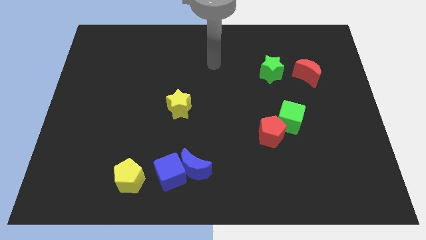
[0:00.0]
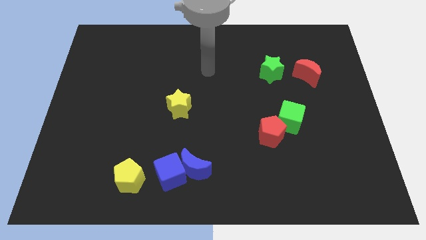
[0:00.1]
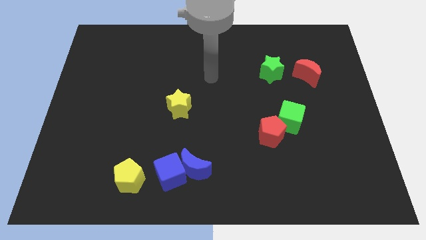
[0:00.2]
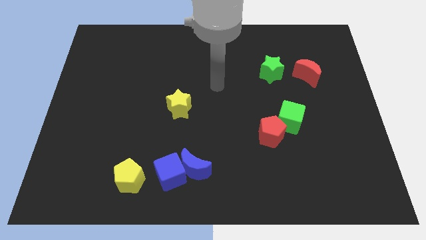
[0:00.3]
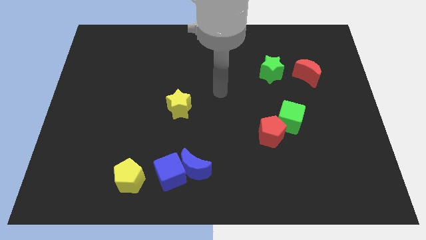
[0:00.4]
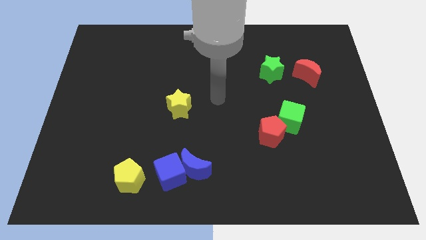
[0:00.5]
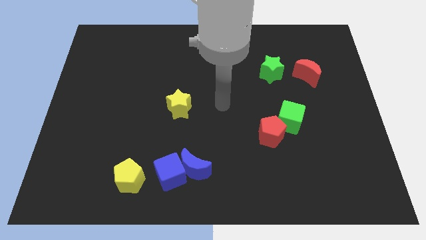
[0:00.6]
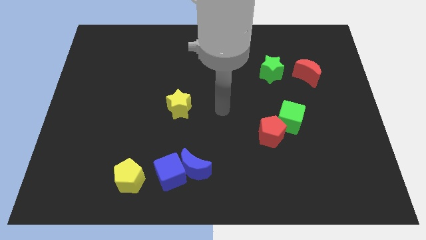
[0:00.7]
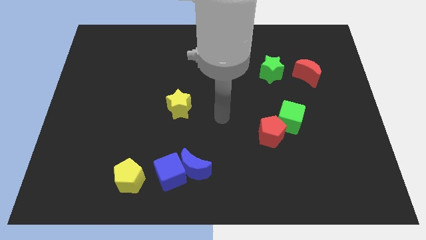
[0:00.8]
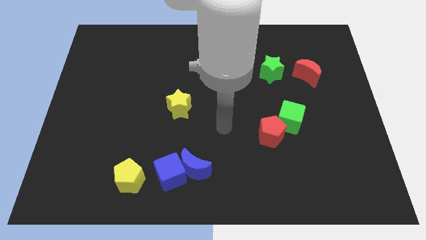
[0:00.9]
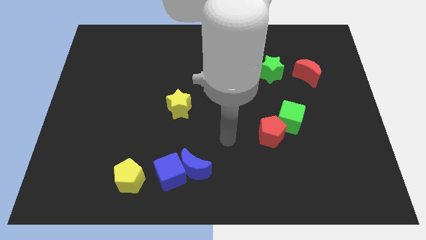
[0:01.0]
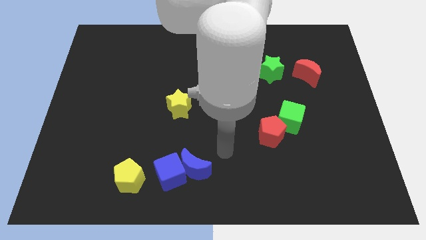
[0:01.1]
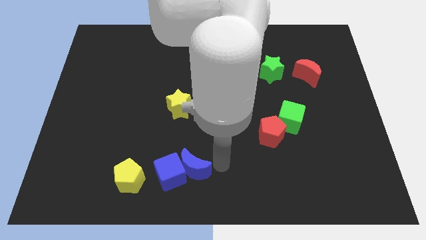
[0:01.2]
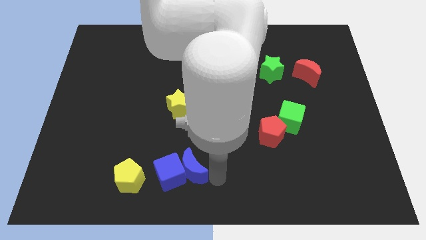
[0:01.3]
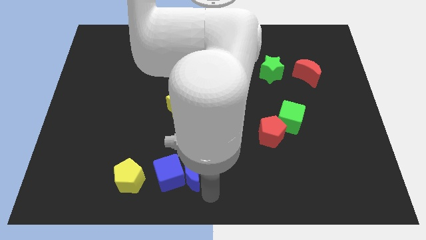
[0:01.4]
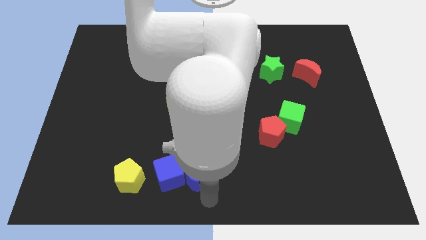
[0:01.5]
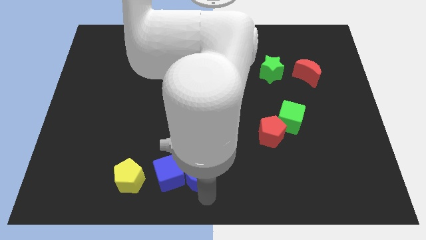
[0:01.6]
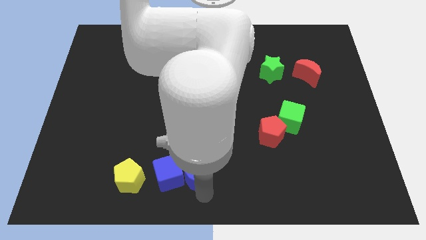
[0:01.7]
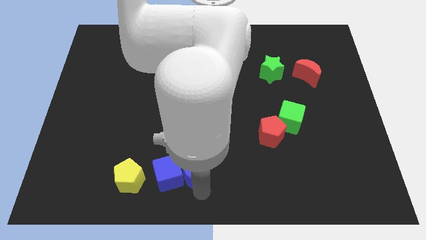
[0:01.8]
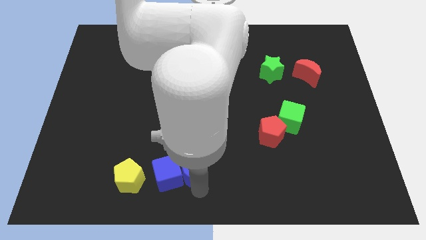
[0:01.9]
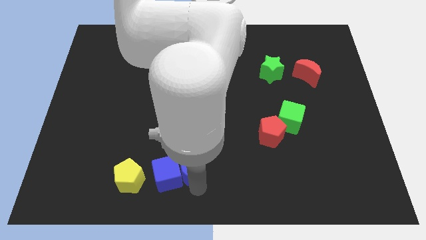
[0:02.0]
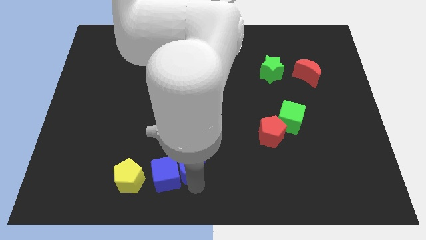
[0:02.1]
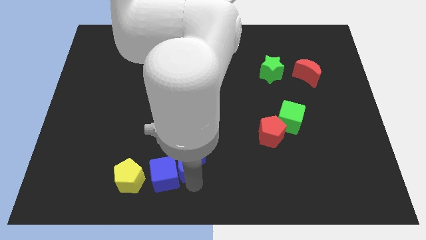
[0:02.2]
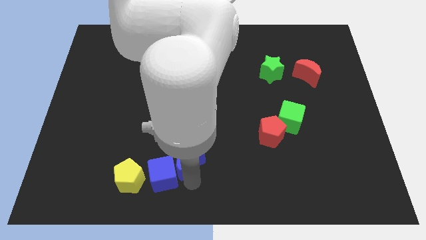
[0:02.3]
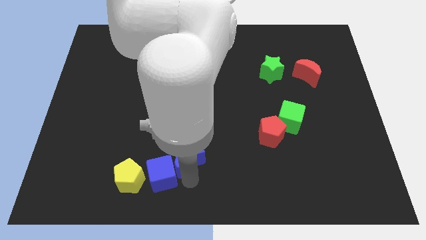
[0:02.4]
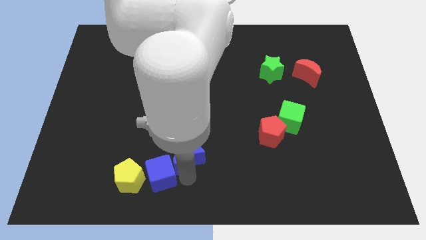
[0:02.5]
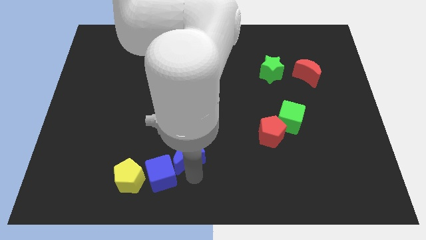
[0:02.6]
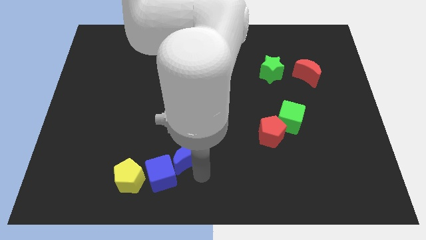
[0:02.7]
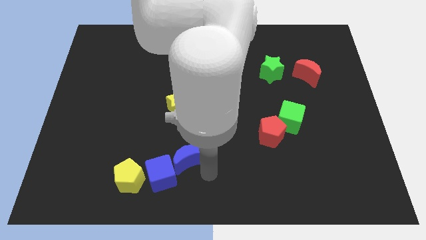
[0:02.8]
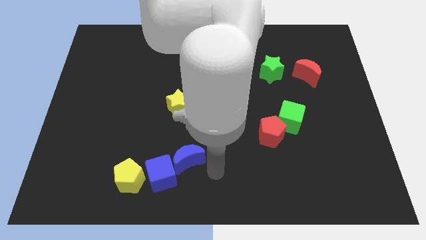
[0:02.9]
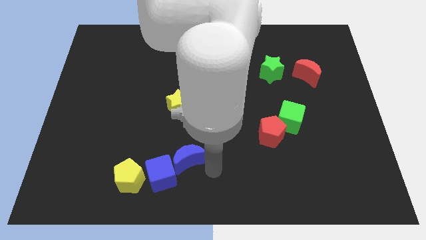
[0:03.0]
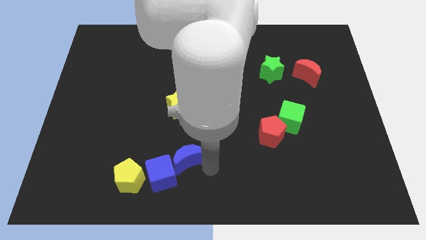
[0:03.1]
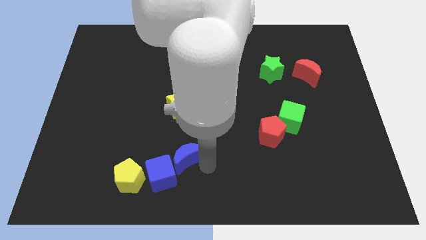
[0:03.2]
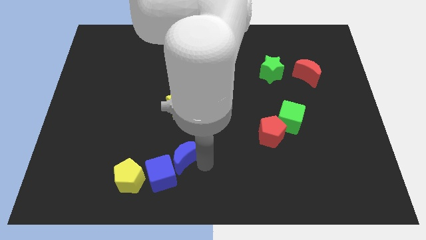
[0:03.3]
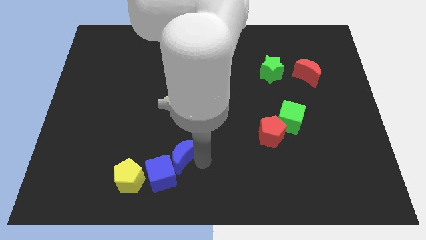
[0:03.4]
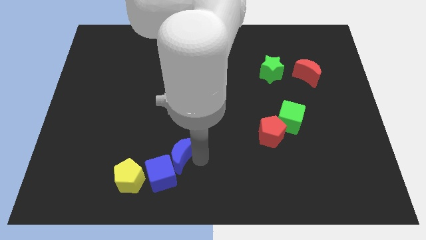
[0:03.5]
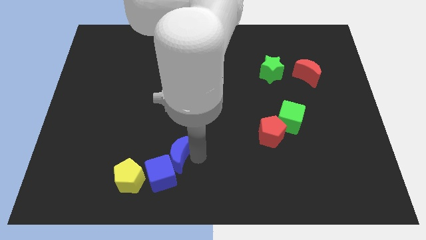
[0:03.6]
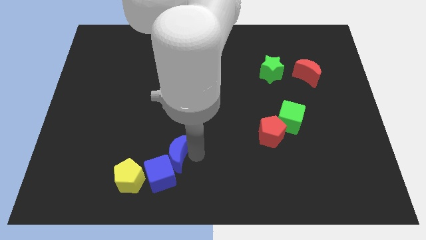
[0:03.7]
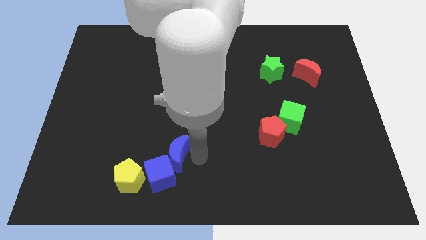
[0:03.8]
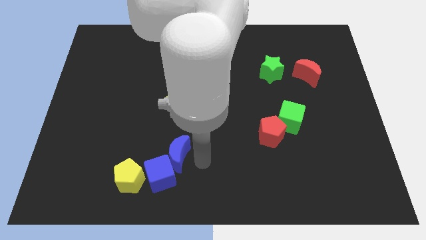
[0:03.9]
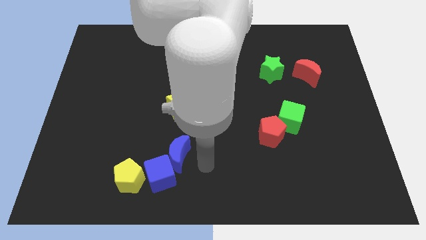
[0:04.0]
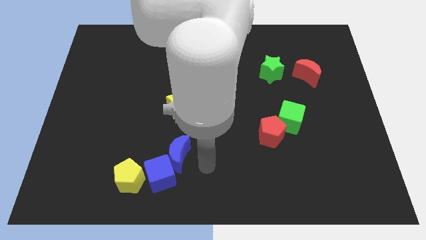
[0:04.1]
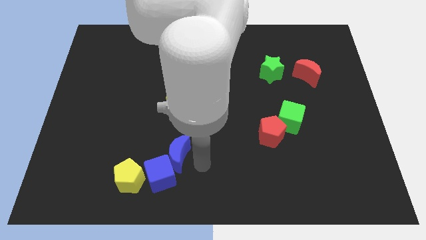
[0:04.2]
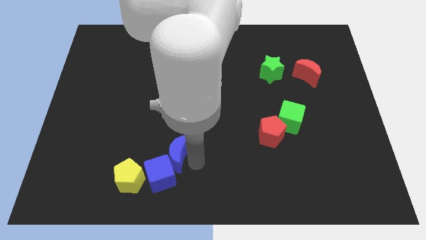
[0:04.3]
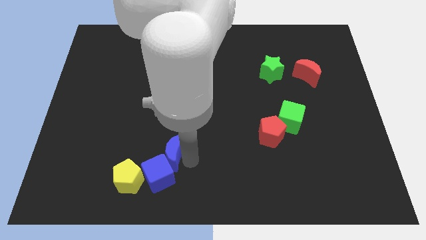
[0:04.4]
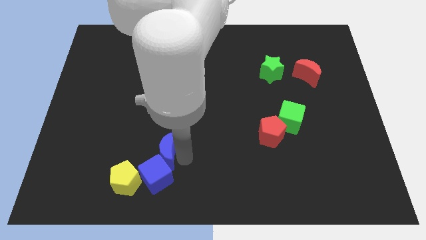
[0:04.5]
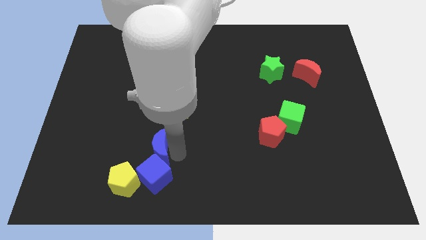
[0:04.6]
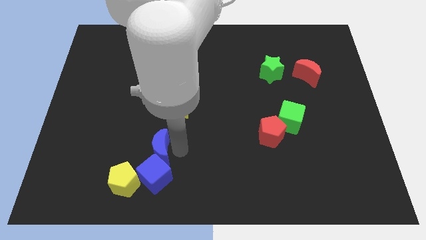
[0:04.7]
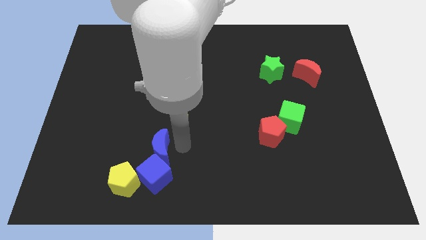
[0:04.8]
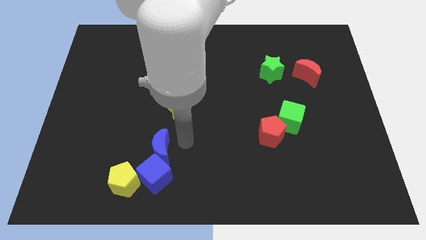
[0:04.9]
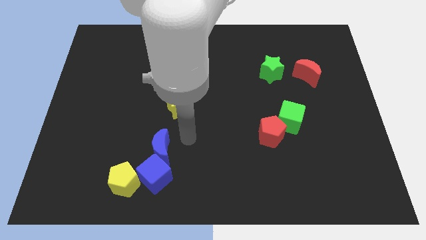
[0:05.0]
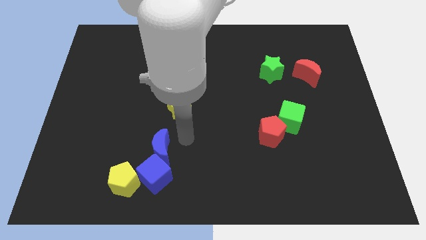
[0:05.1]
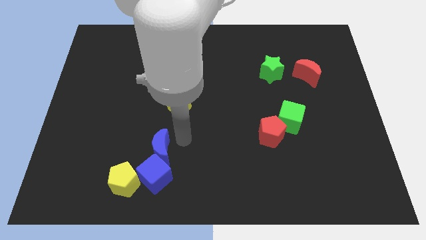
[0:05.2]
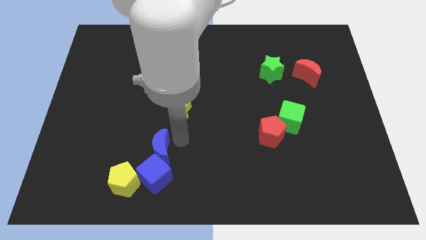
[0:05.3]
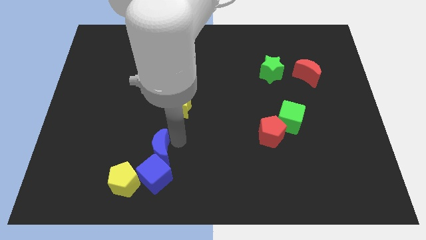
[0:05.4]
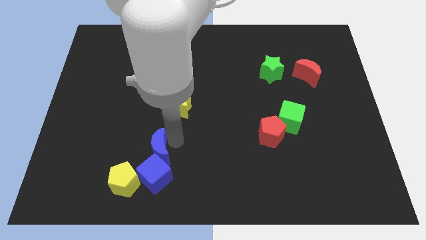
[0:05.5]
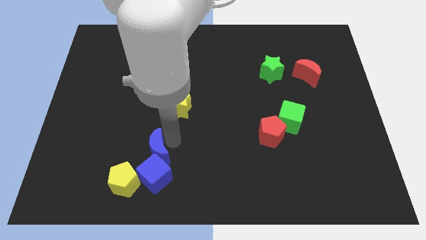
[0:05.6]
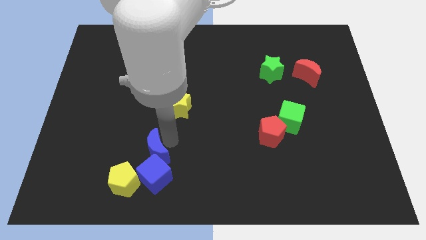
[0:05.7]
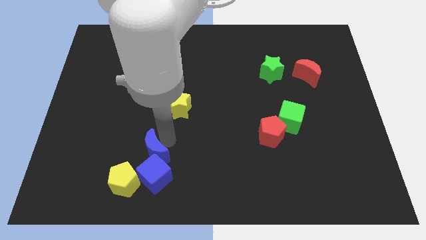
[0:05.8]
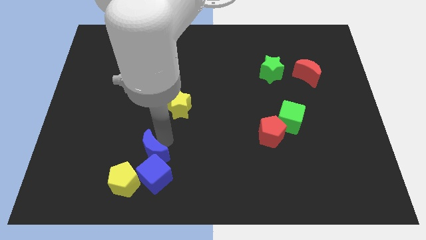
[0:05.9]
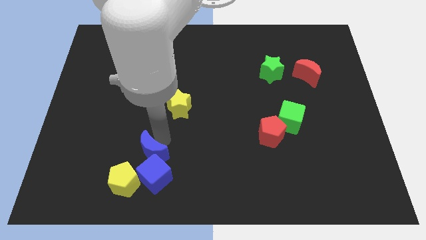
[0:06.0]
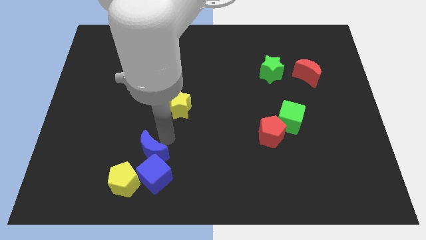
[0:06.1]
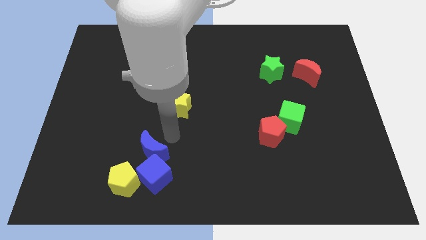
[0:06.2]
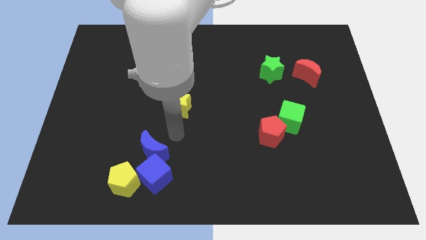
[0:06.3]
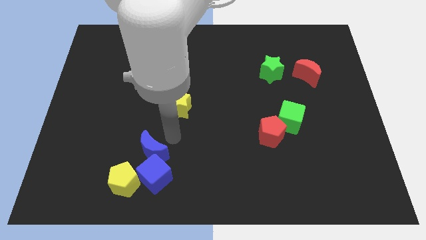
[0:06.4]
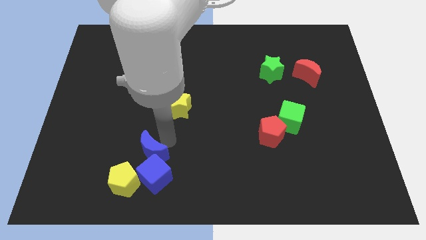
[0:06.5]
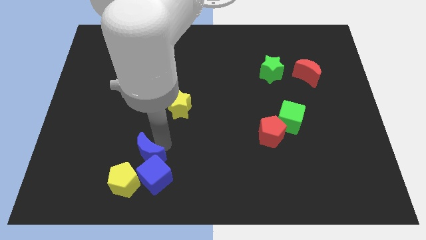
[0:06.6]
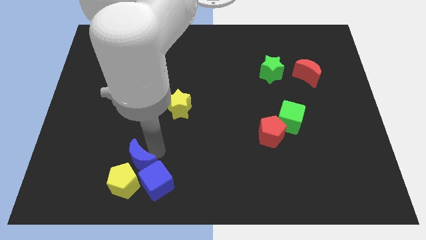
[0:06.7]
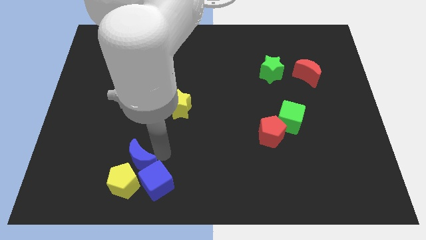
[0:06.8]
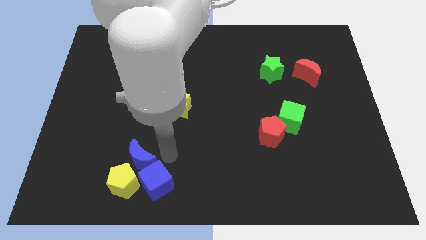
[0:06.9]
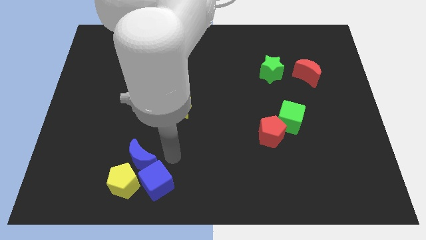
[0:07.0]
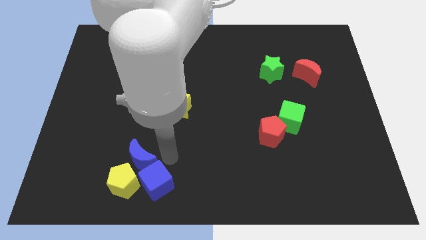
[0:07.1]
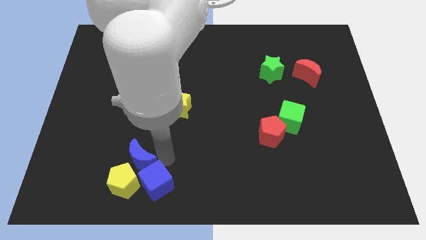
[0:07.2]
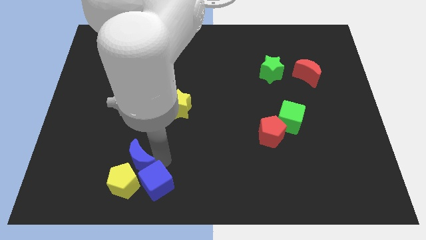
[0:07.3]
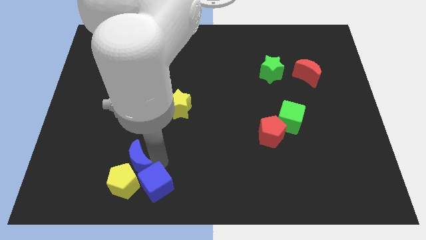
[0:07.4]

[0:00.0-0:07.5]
push the blue moon to the left of the blue cube
